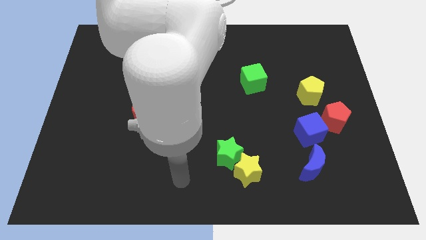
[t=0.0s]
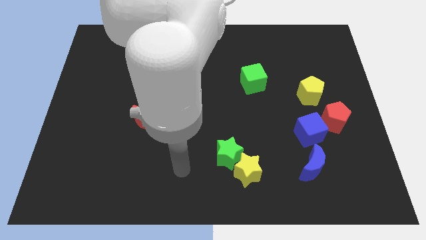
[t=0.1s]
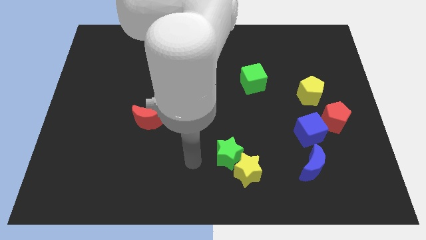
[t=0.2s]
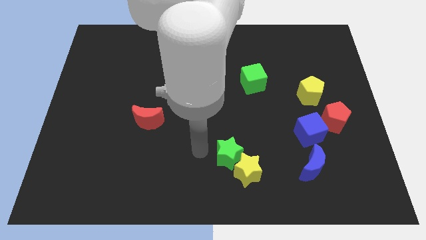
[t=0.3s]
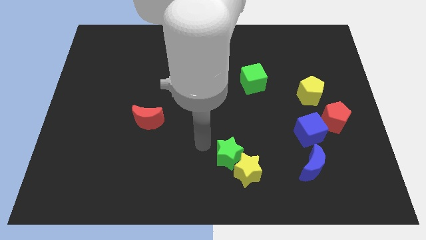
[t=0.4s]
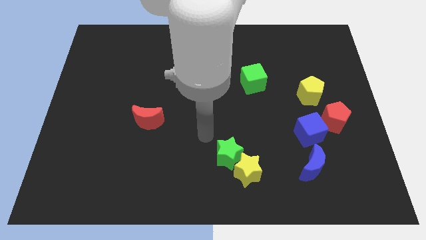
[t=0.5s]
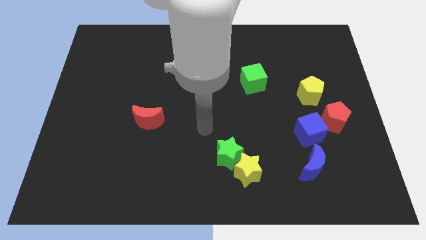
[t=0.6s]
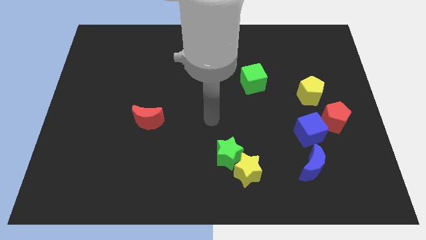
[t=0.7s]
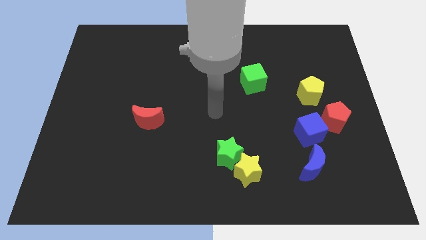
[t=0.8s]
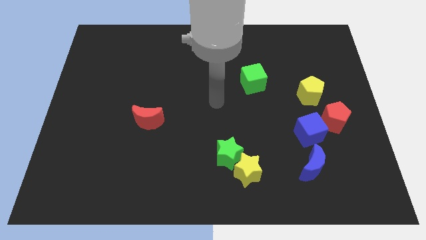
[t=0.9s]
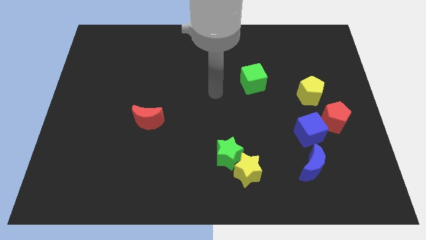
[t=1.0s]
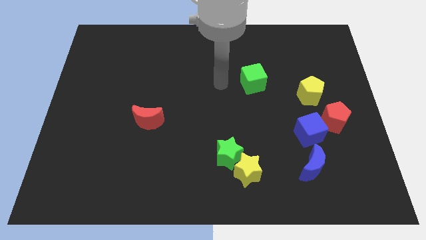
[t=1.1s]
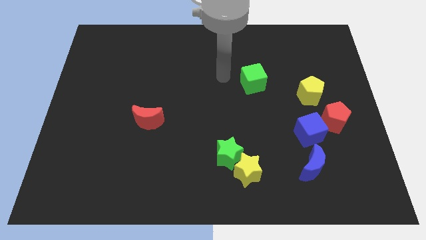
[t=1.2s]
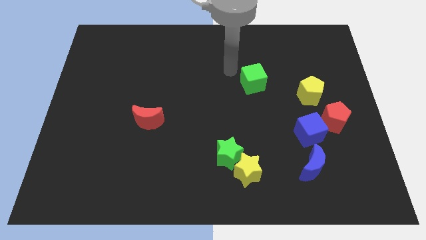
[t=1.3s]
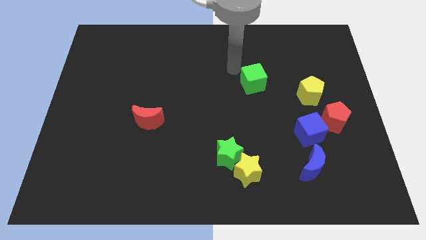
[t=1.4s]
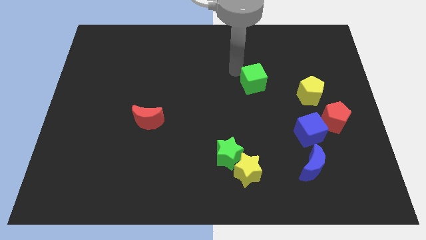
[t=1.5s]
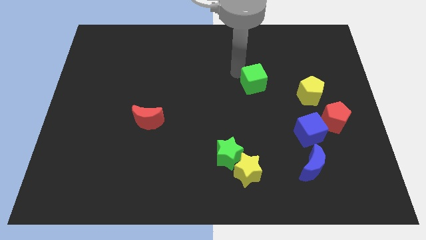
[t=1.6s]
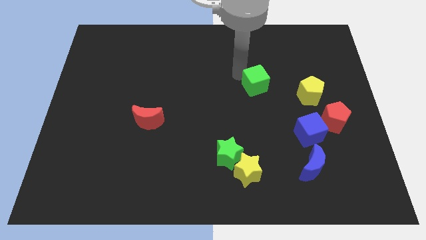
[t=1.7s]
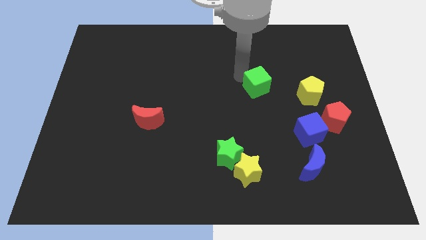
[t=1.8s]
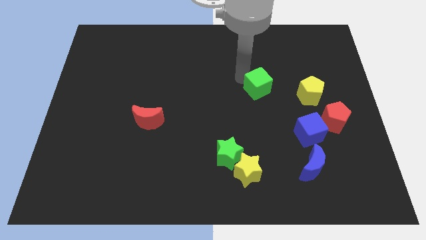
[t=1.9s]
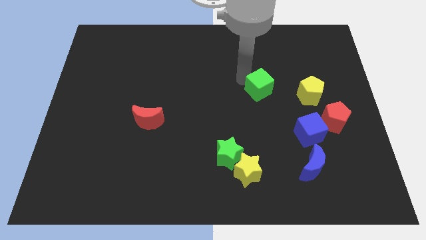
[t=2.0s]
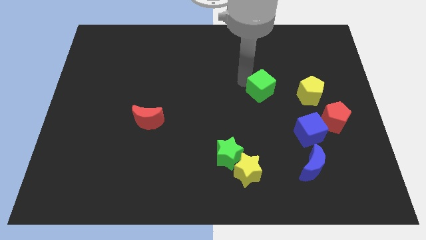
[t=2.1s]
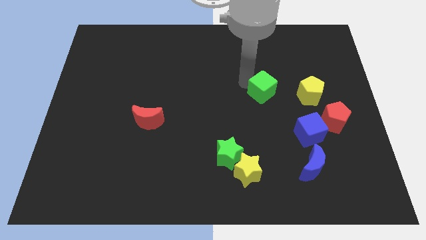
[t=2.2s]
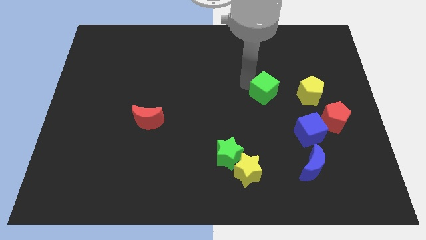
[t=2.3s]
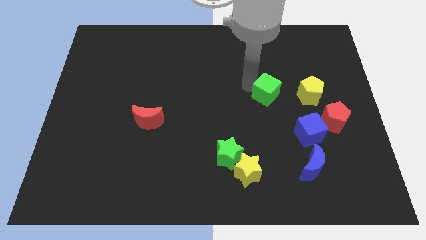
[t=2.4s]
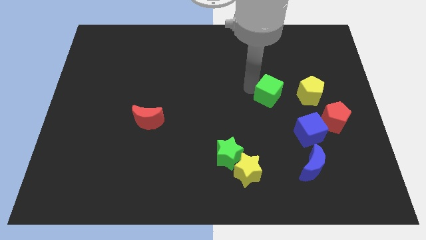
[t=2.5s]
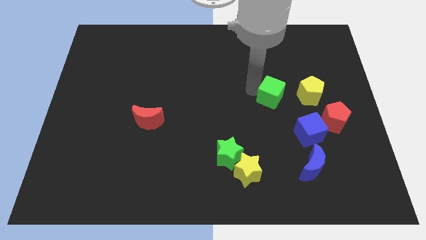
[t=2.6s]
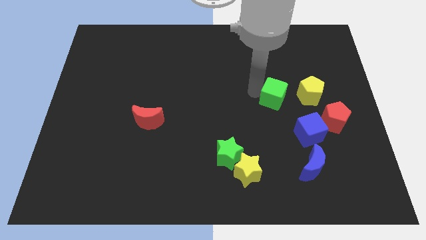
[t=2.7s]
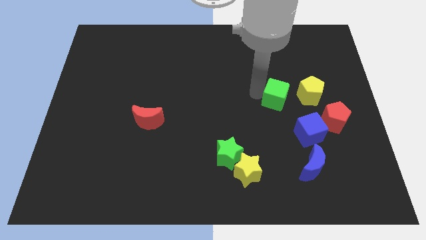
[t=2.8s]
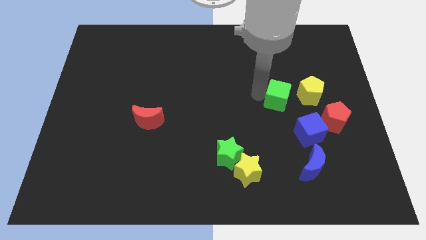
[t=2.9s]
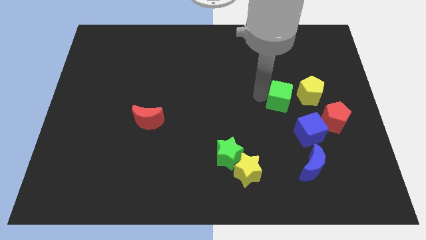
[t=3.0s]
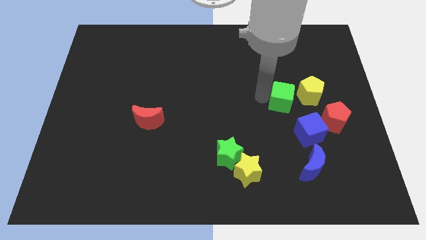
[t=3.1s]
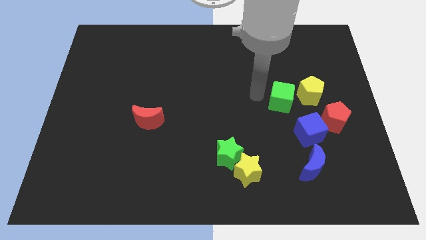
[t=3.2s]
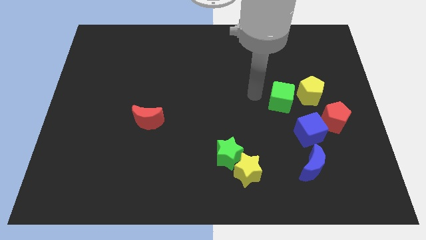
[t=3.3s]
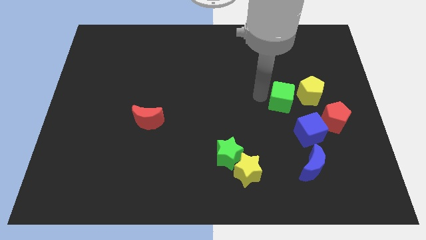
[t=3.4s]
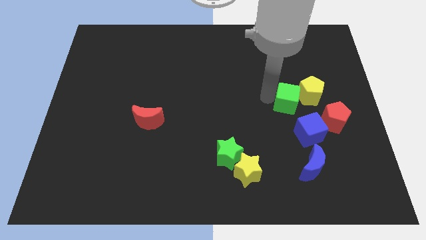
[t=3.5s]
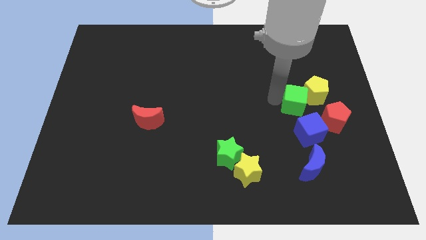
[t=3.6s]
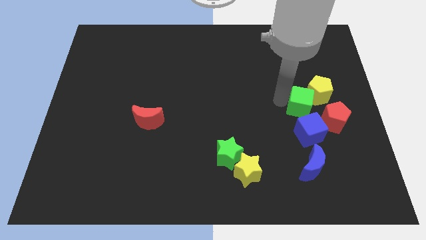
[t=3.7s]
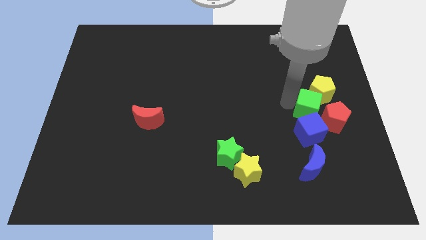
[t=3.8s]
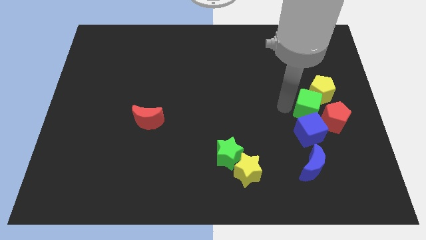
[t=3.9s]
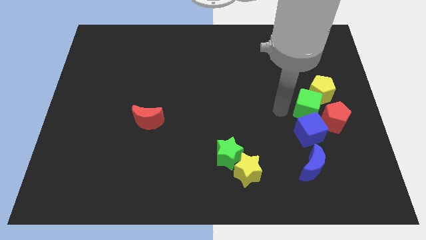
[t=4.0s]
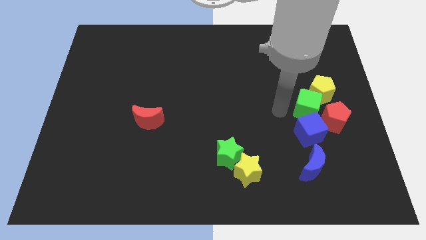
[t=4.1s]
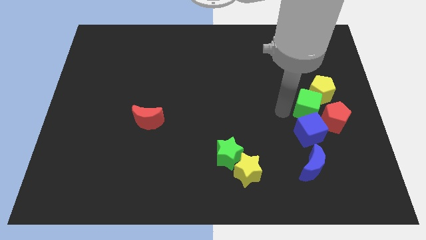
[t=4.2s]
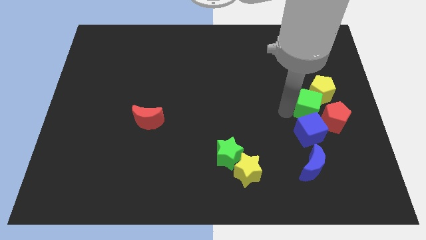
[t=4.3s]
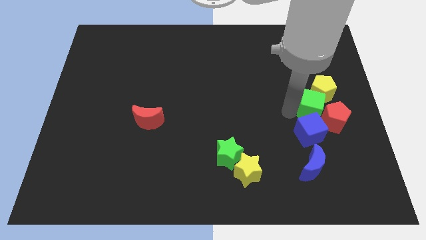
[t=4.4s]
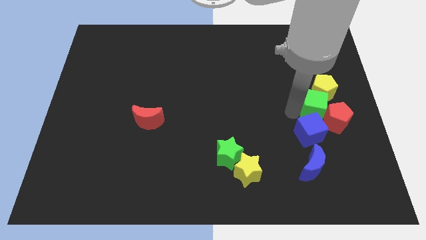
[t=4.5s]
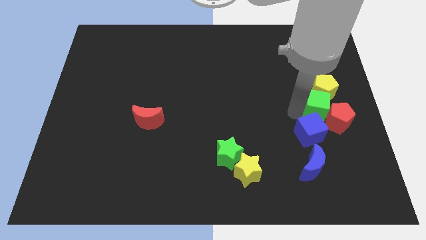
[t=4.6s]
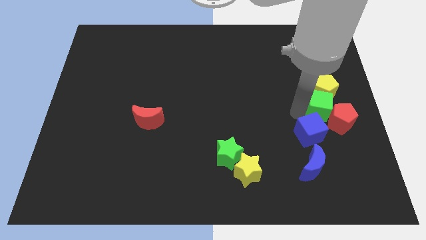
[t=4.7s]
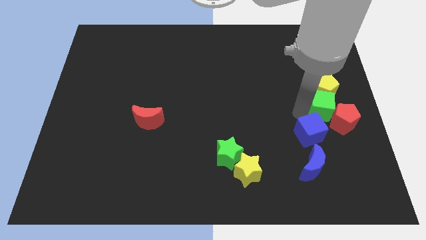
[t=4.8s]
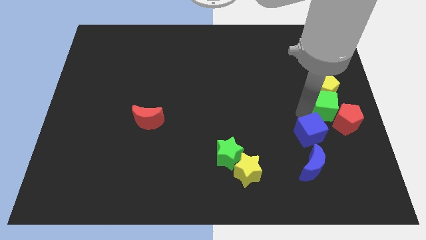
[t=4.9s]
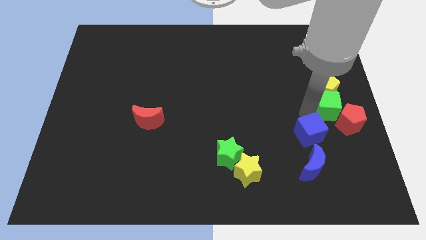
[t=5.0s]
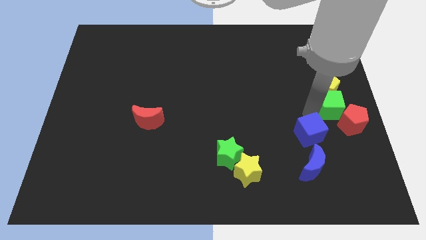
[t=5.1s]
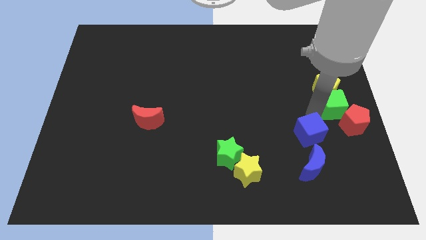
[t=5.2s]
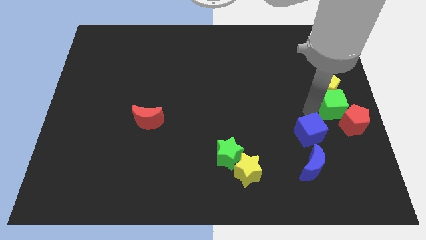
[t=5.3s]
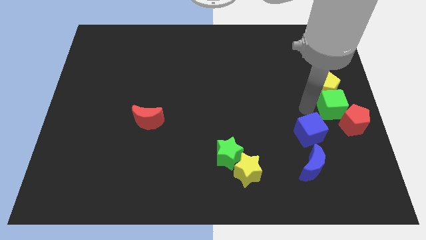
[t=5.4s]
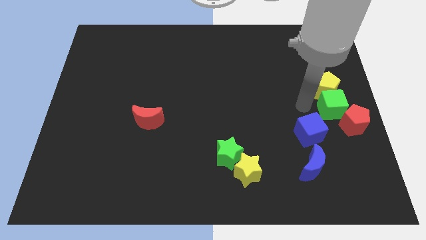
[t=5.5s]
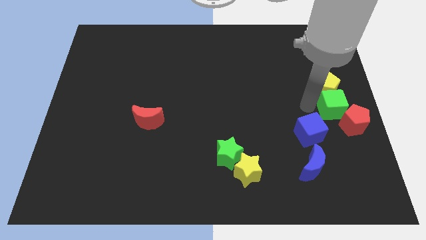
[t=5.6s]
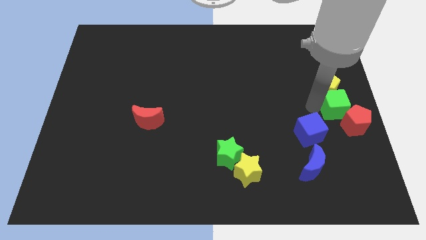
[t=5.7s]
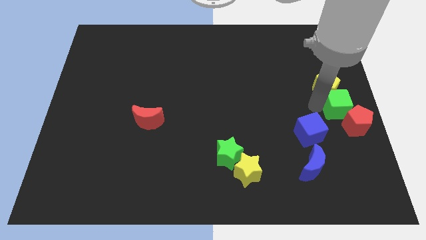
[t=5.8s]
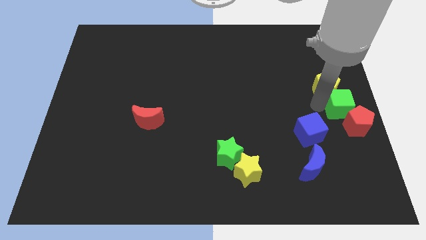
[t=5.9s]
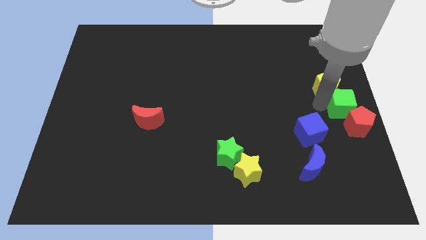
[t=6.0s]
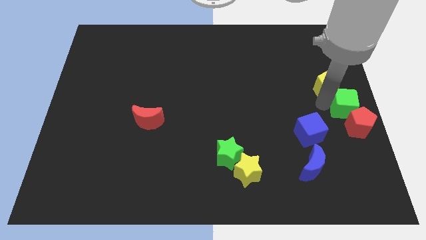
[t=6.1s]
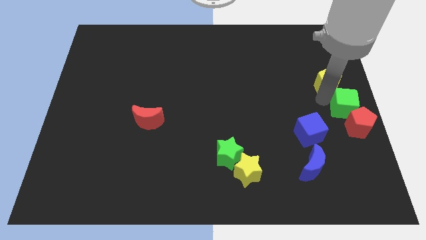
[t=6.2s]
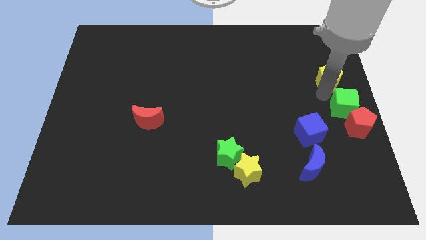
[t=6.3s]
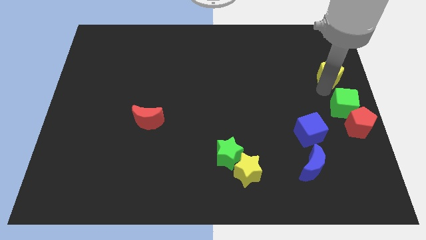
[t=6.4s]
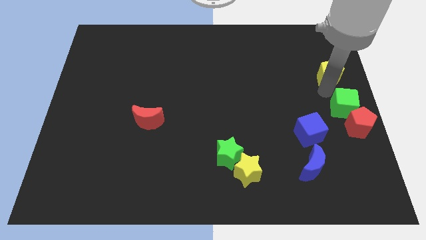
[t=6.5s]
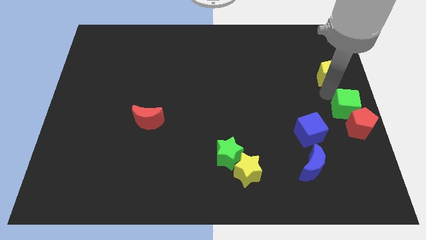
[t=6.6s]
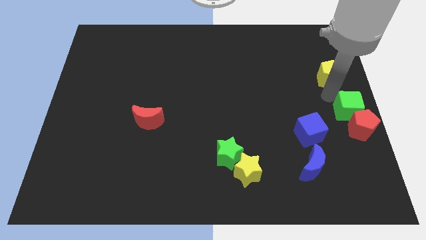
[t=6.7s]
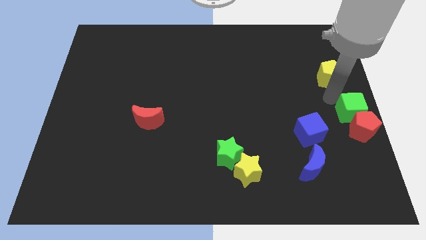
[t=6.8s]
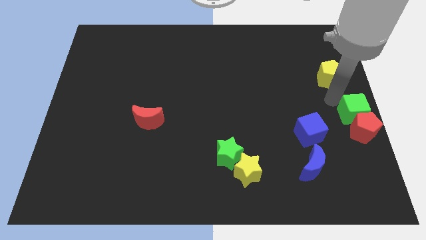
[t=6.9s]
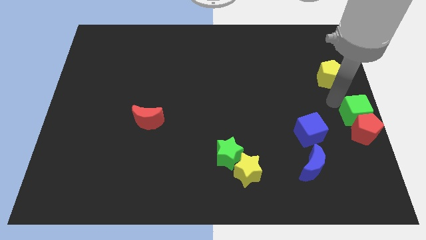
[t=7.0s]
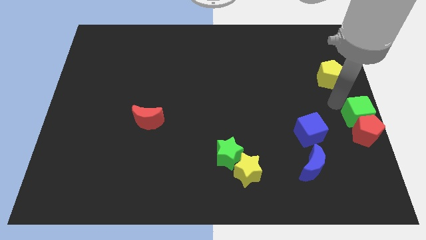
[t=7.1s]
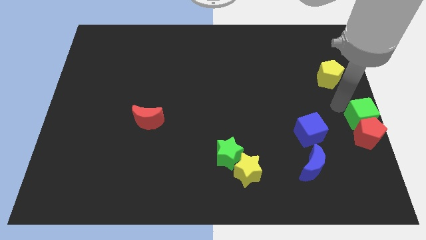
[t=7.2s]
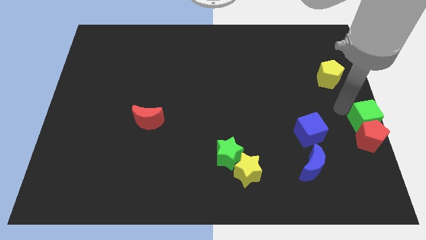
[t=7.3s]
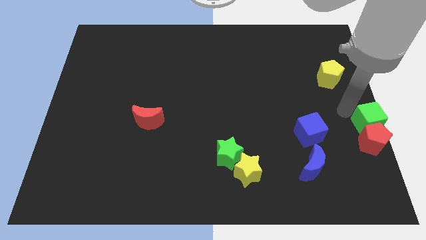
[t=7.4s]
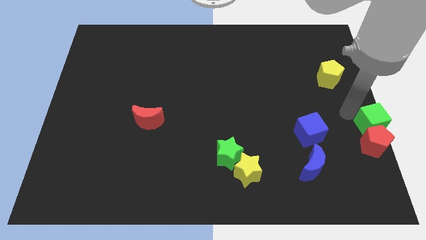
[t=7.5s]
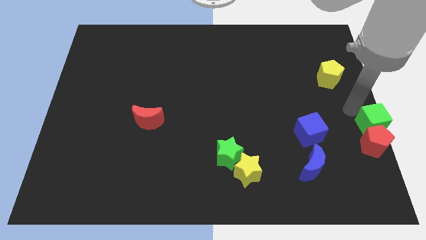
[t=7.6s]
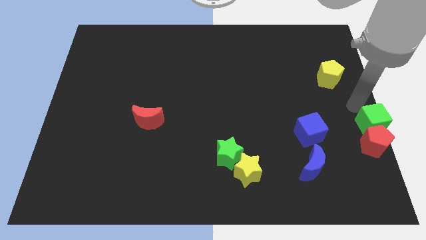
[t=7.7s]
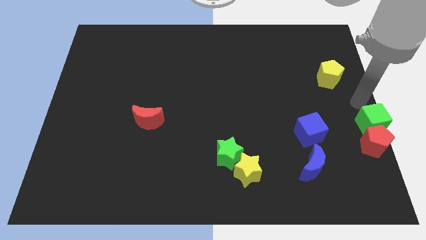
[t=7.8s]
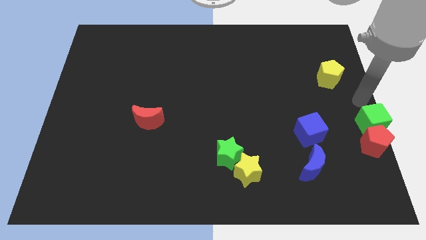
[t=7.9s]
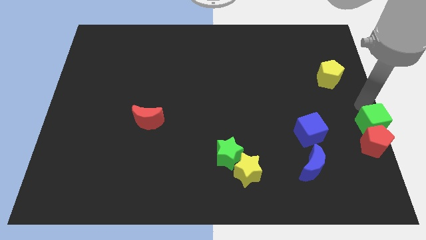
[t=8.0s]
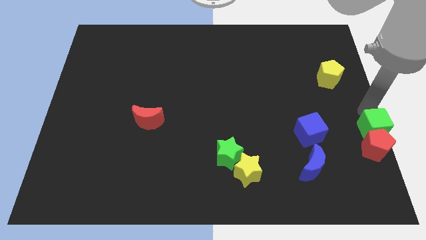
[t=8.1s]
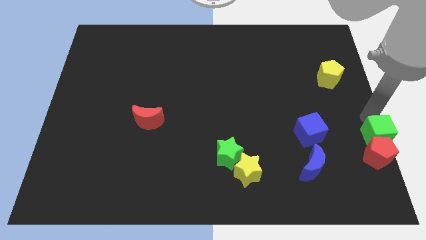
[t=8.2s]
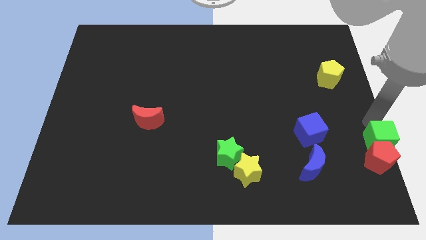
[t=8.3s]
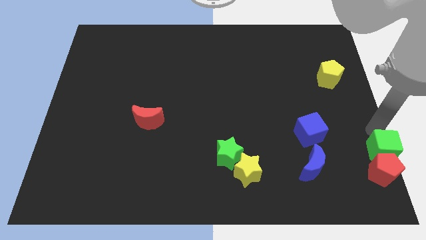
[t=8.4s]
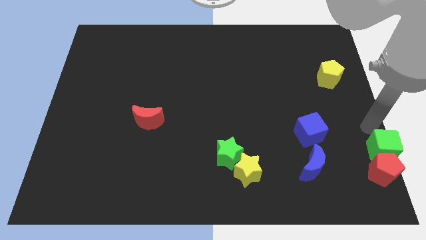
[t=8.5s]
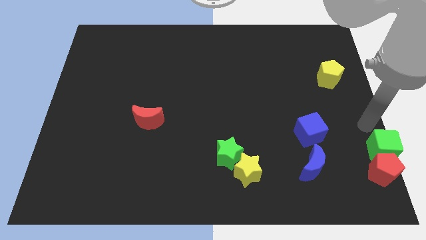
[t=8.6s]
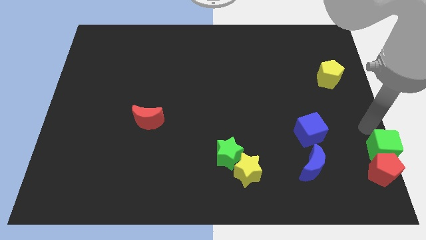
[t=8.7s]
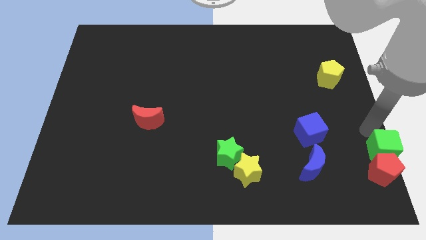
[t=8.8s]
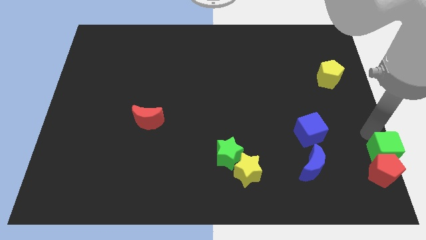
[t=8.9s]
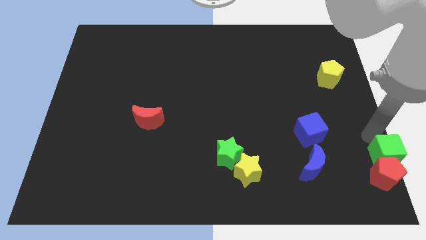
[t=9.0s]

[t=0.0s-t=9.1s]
push the green cube to the bottom right corner
